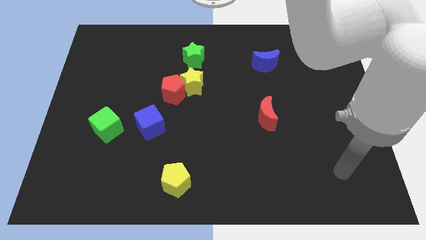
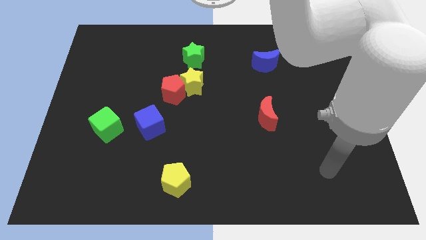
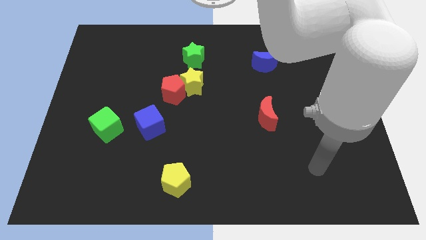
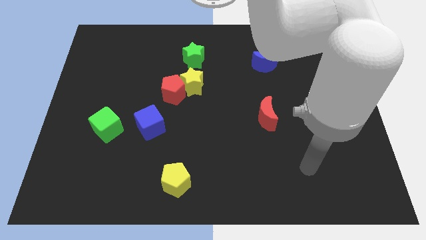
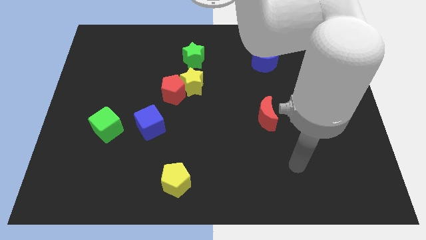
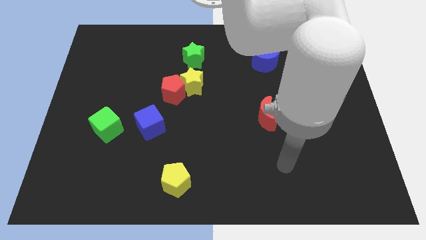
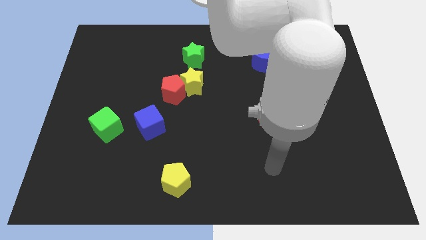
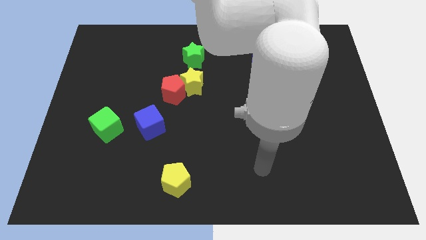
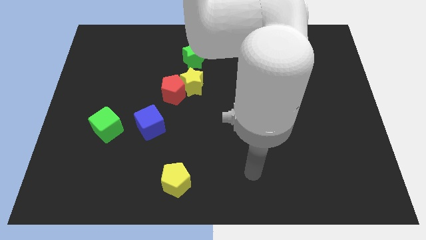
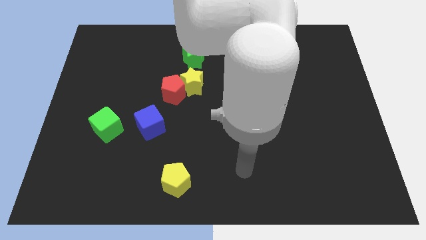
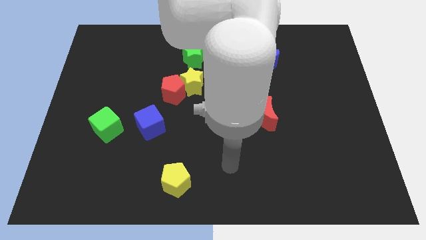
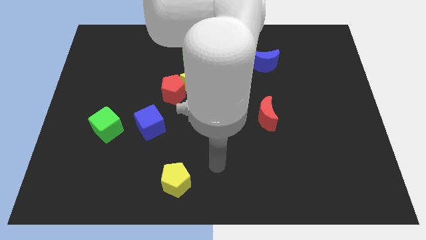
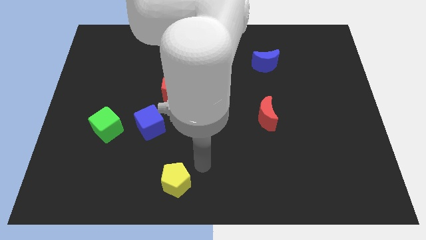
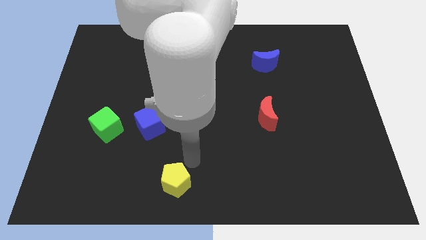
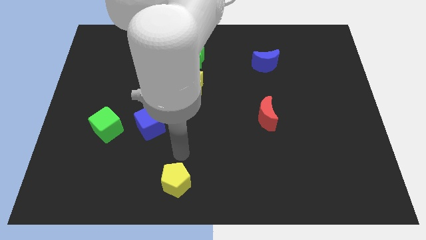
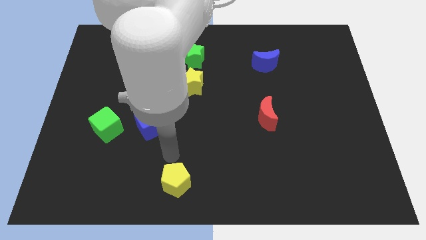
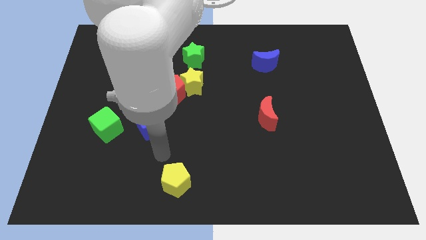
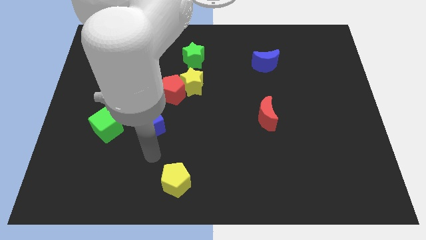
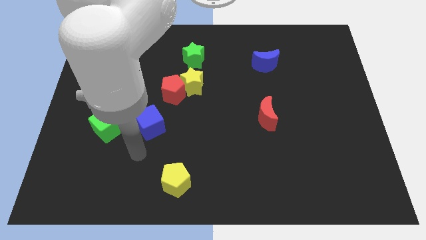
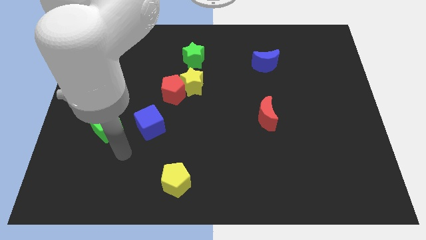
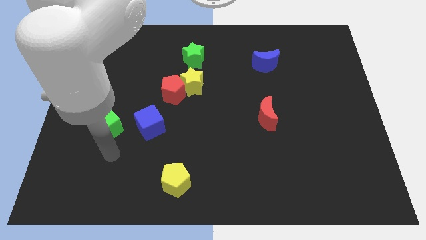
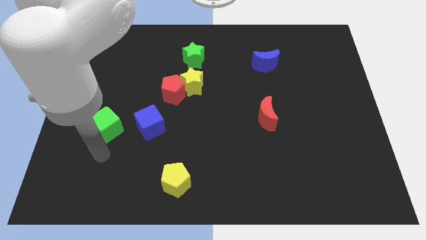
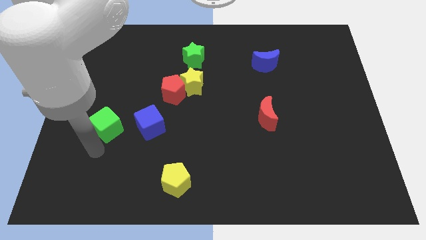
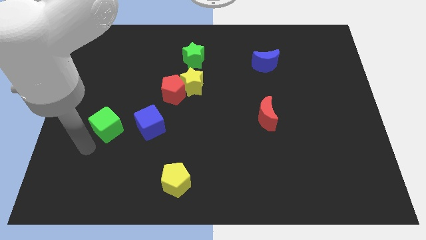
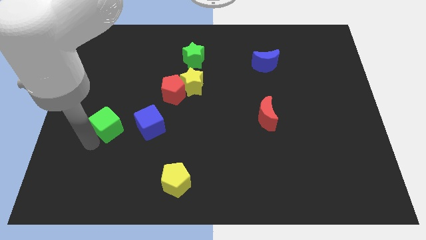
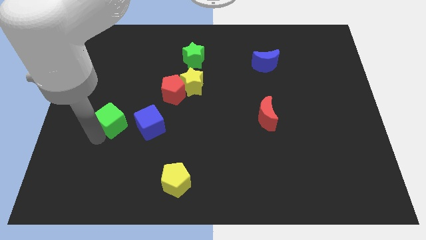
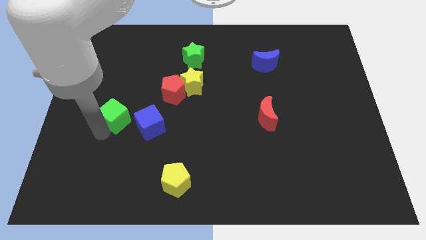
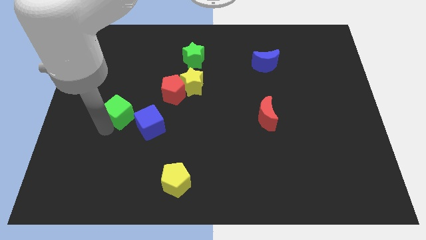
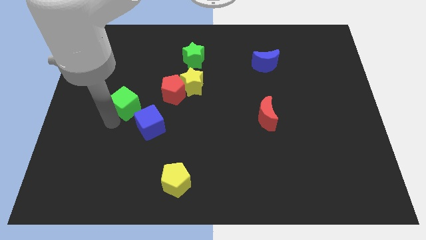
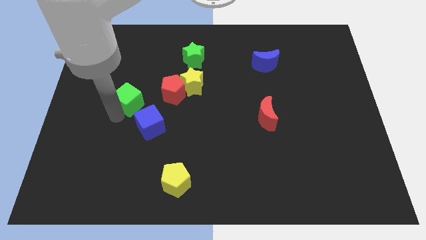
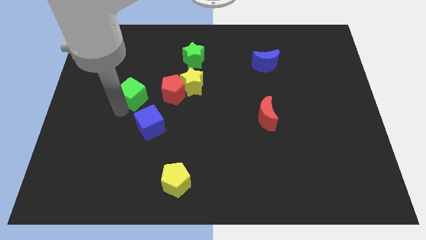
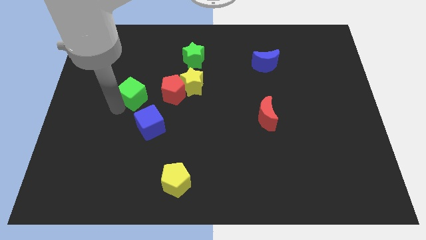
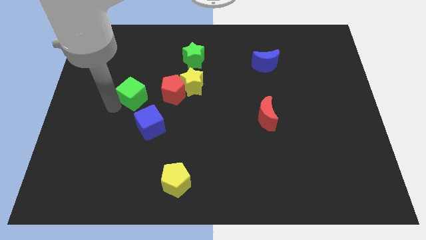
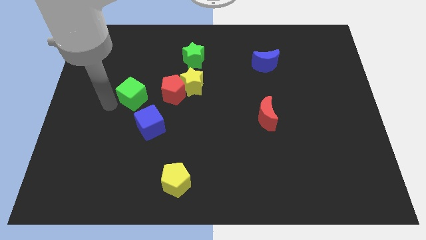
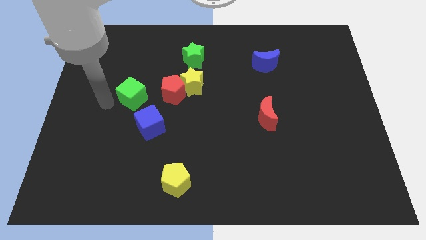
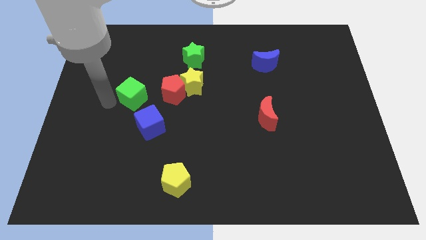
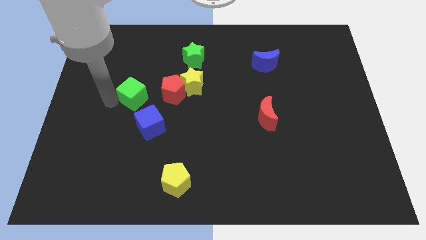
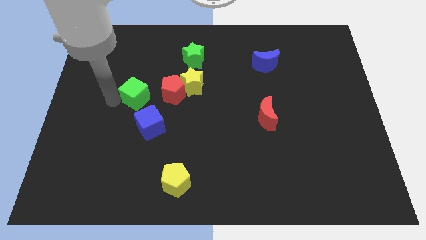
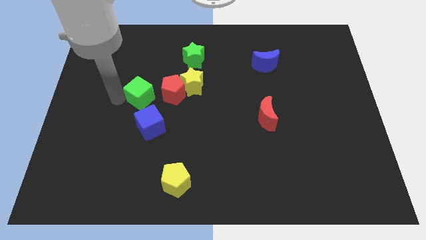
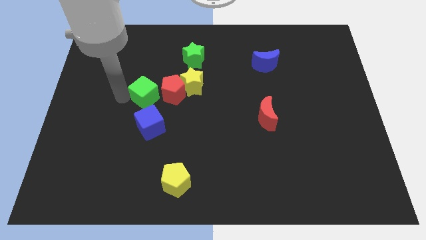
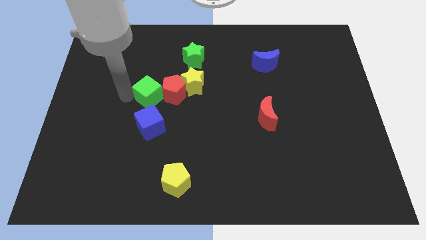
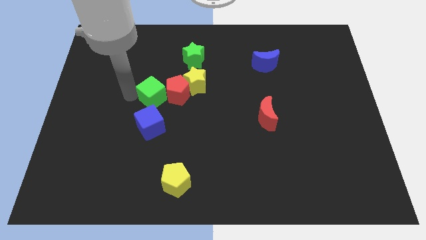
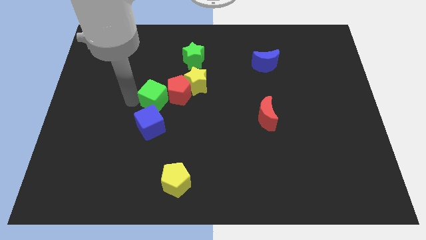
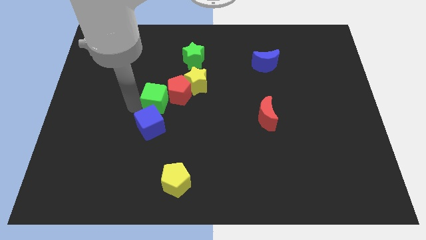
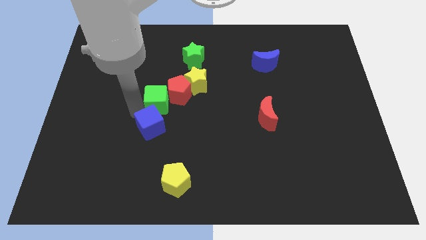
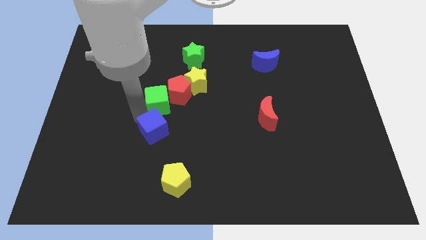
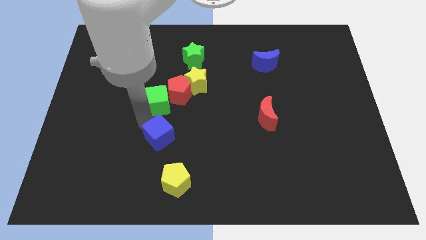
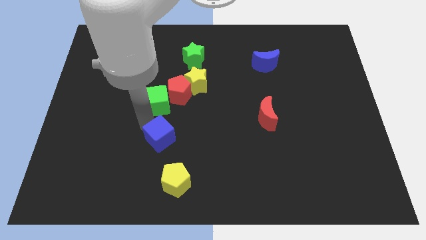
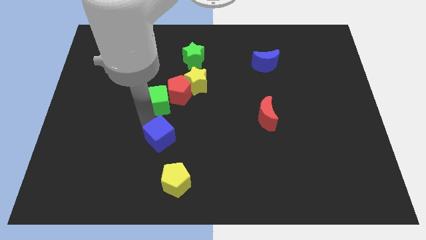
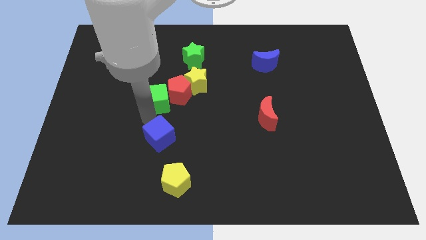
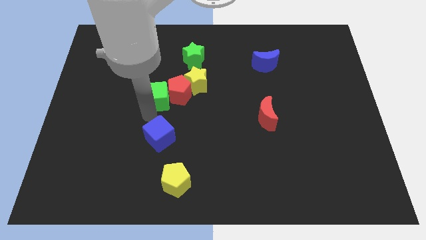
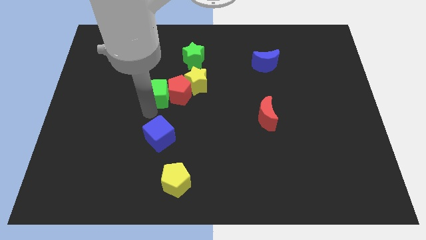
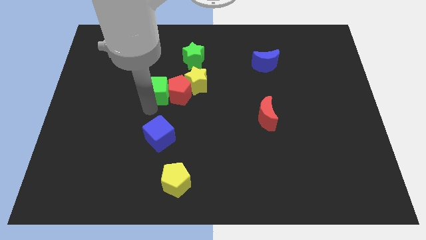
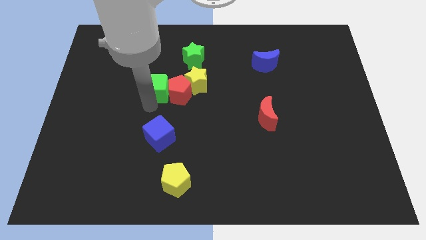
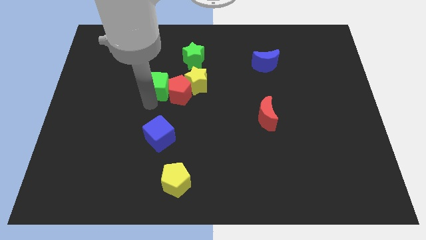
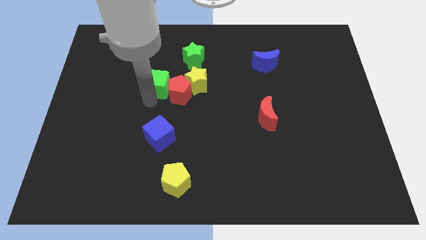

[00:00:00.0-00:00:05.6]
slide the green cube to the bottom left of the green star

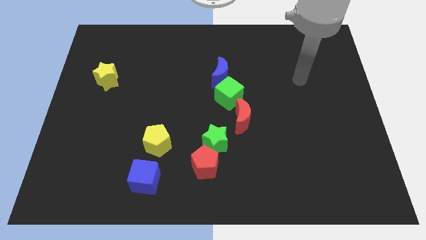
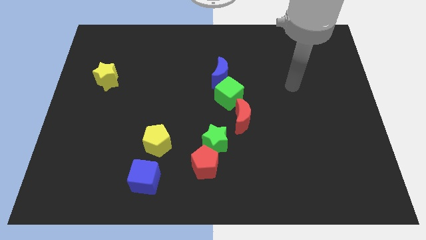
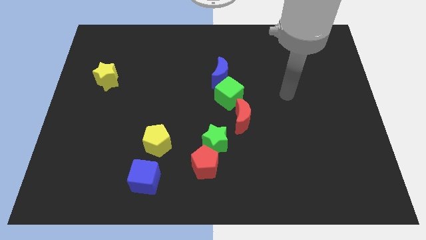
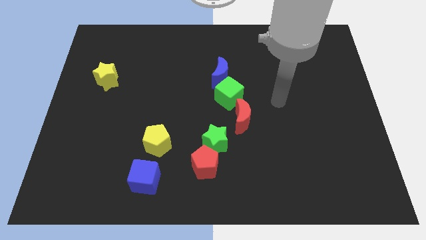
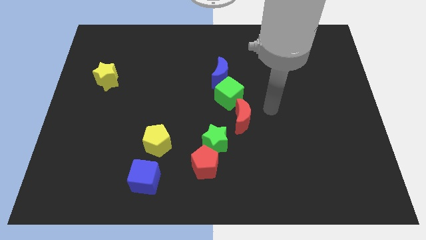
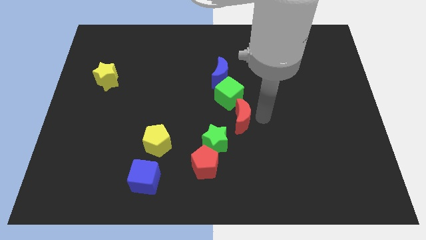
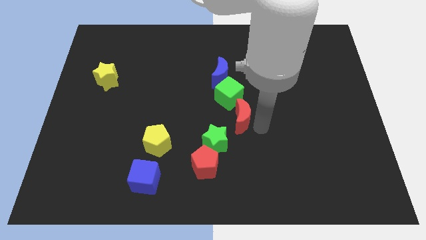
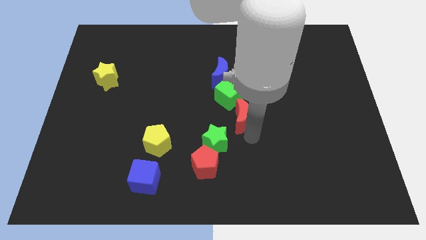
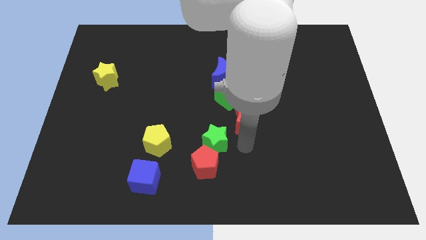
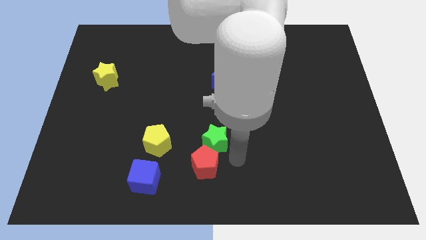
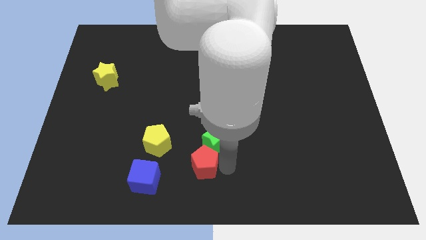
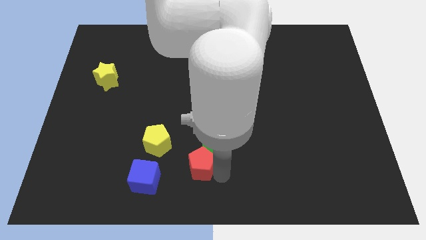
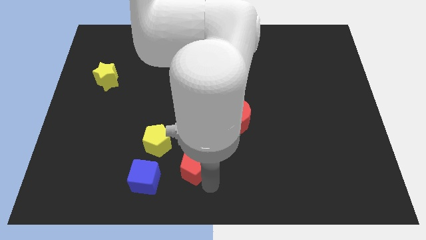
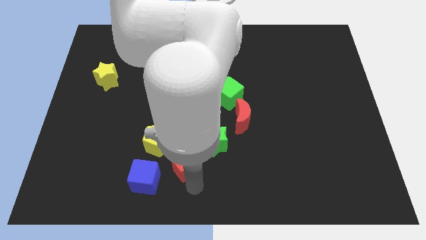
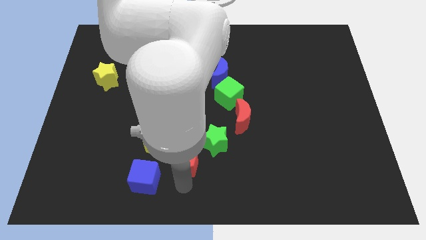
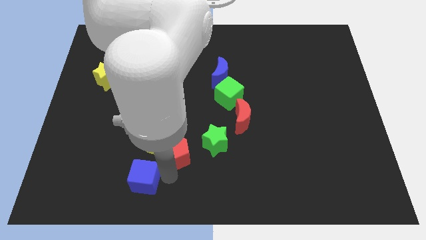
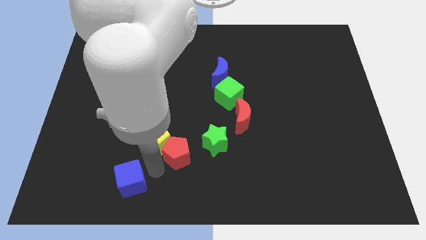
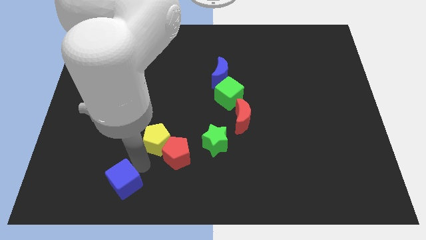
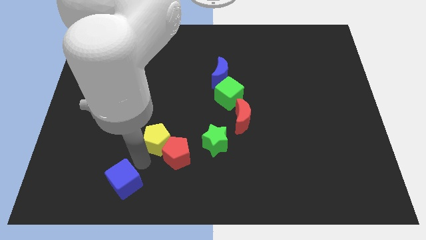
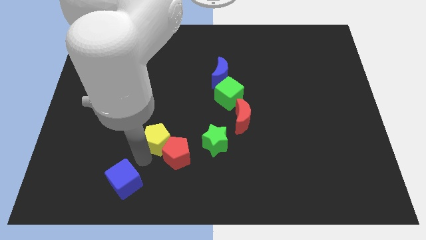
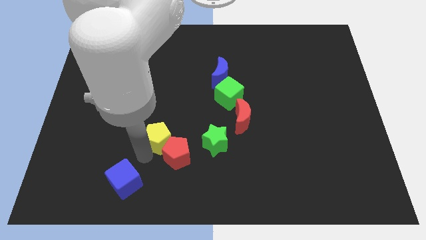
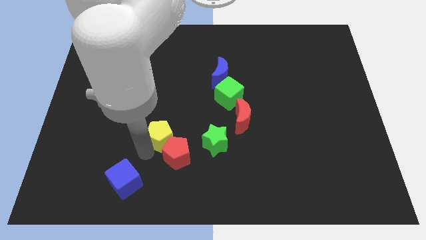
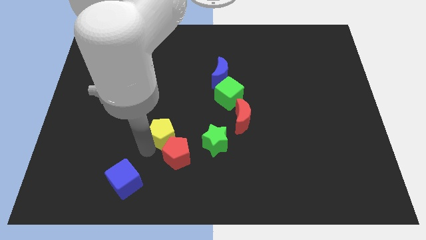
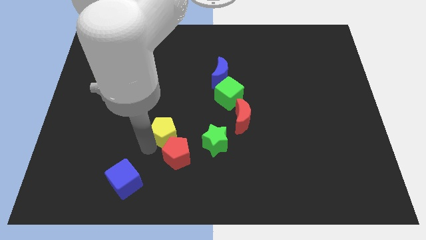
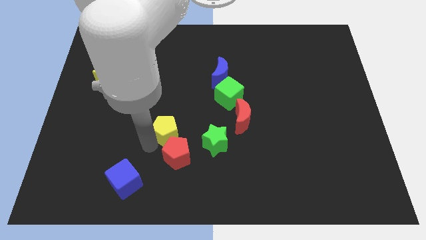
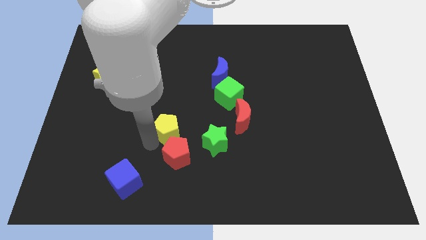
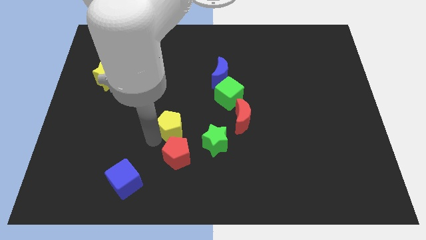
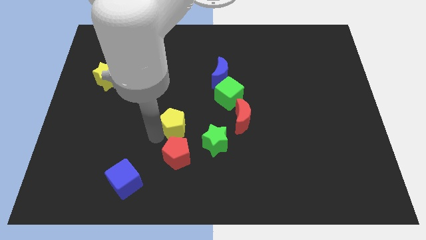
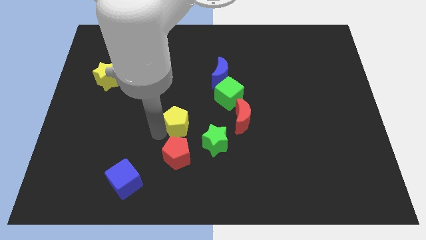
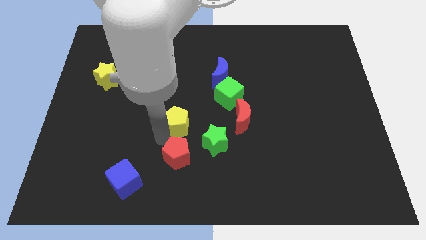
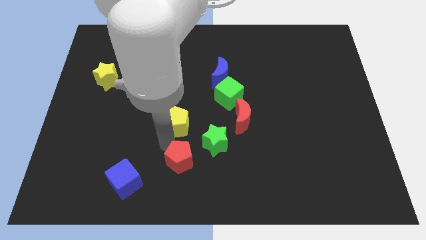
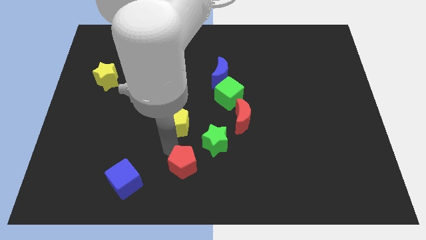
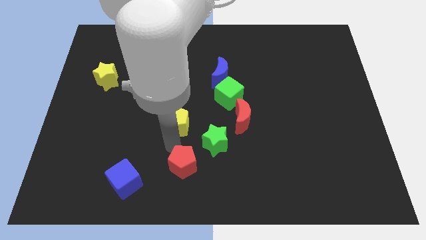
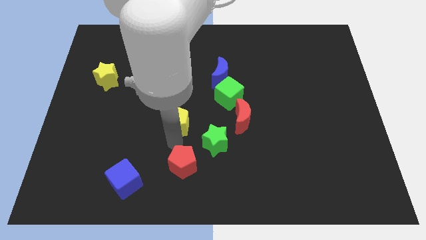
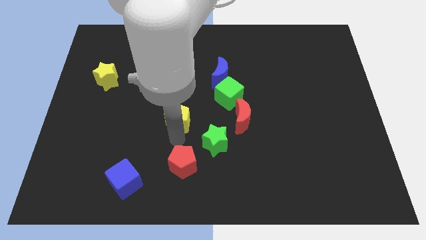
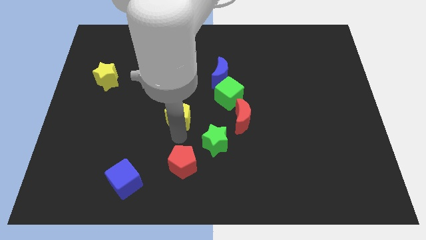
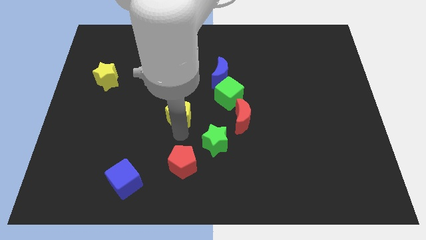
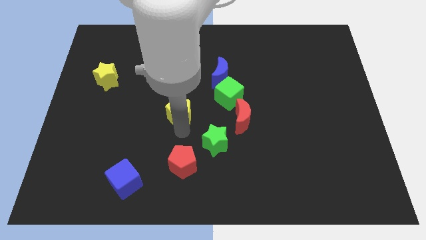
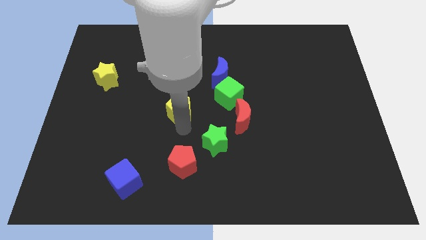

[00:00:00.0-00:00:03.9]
slide the yellow pentagon left of the green cube
